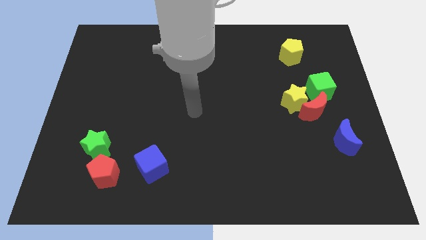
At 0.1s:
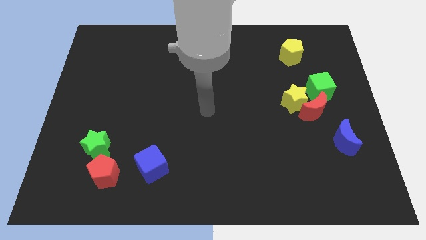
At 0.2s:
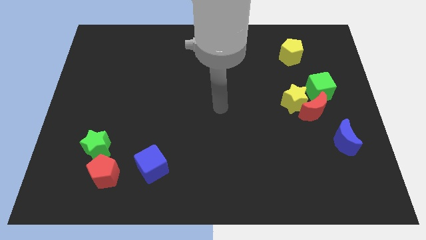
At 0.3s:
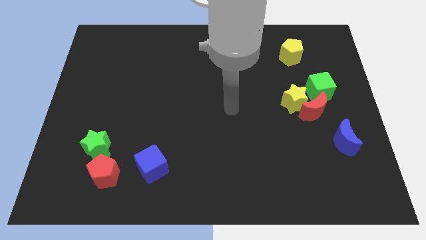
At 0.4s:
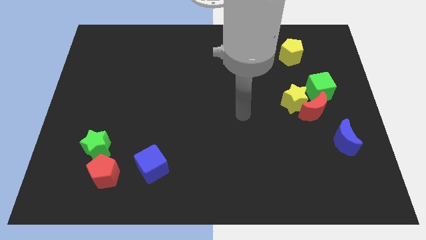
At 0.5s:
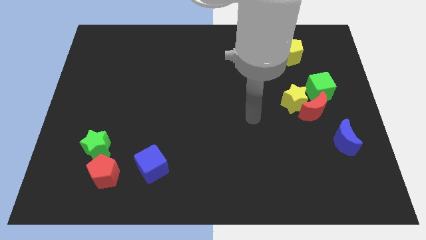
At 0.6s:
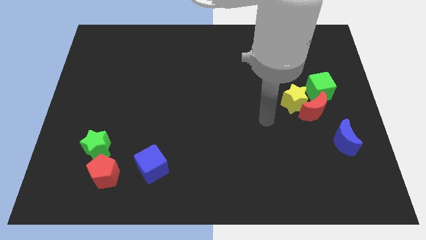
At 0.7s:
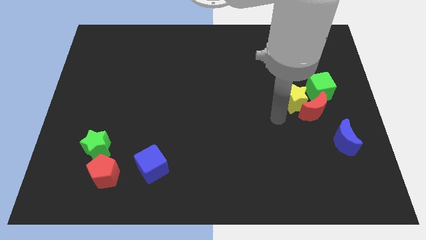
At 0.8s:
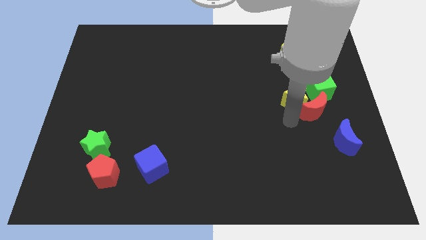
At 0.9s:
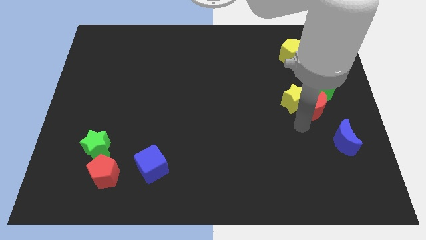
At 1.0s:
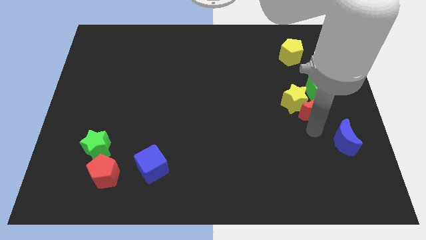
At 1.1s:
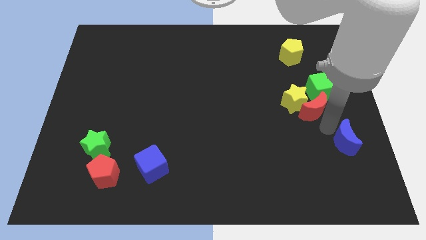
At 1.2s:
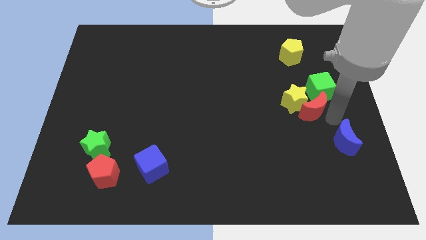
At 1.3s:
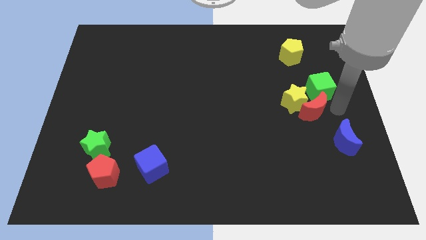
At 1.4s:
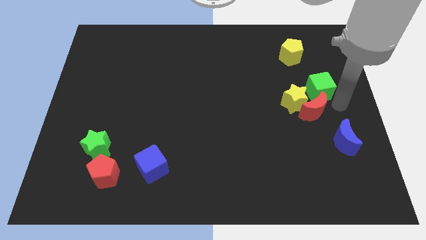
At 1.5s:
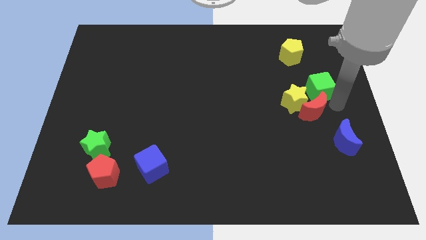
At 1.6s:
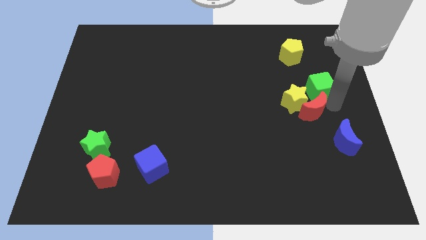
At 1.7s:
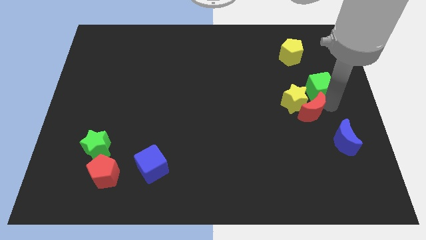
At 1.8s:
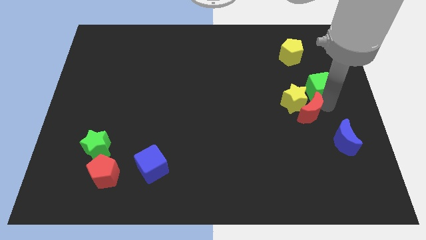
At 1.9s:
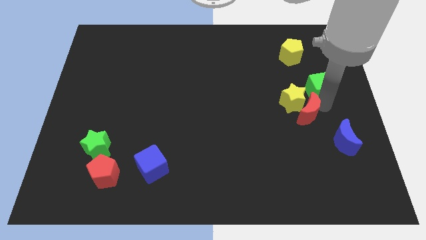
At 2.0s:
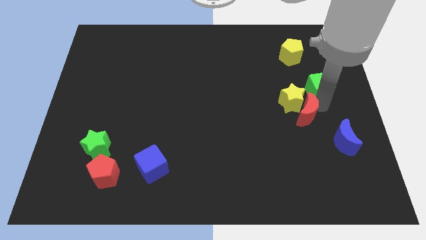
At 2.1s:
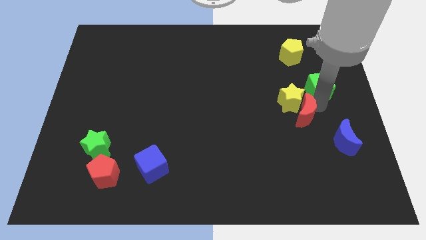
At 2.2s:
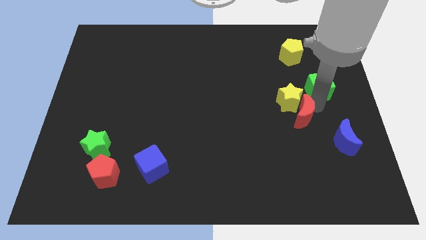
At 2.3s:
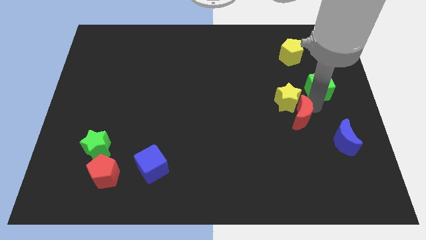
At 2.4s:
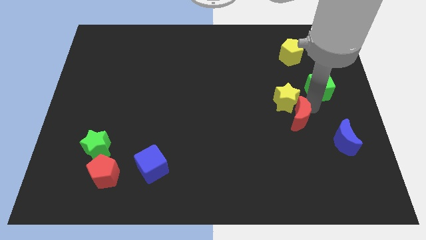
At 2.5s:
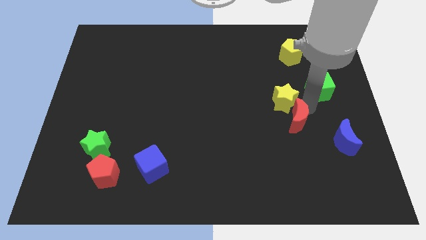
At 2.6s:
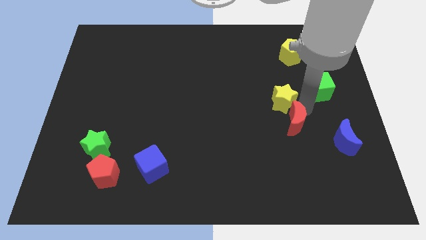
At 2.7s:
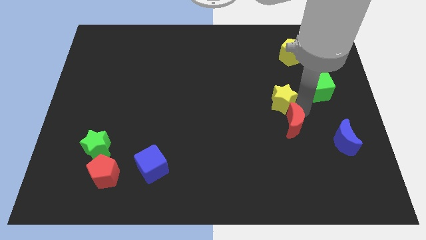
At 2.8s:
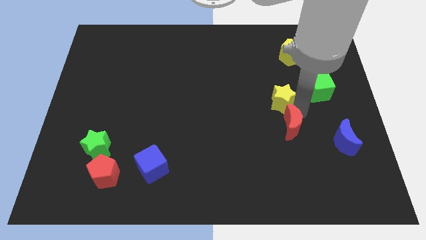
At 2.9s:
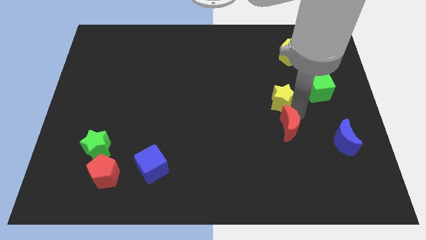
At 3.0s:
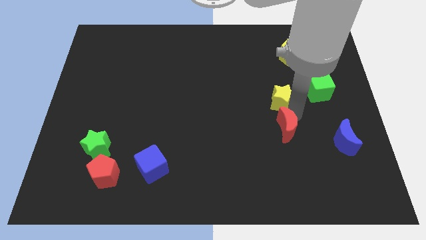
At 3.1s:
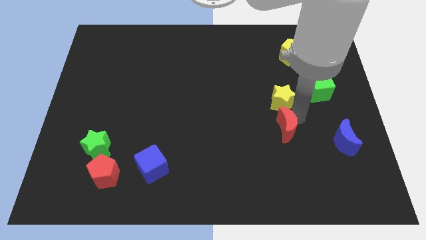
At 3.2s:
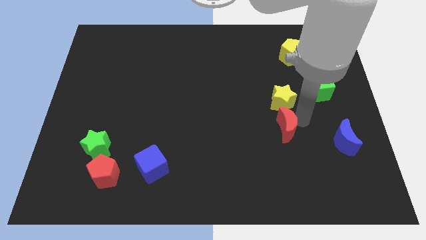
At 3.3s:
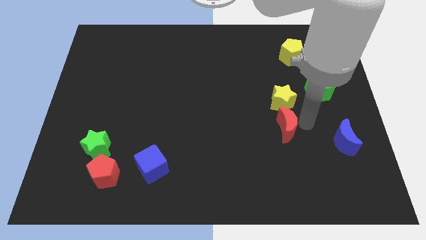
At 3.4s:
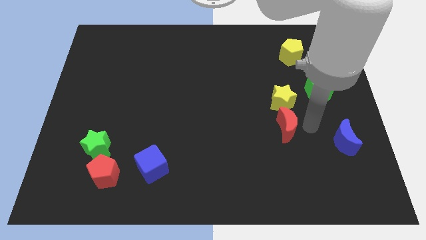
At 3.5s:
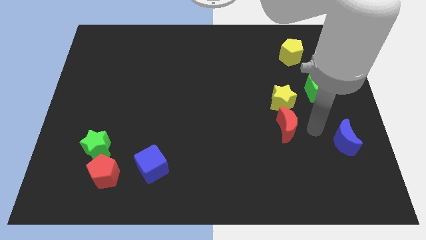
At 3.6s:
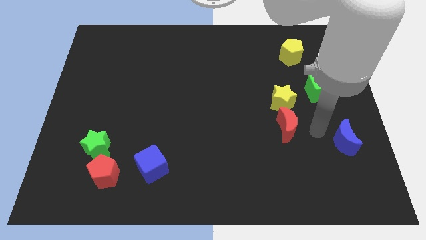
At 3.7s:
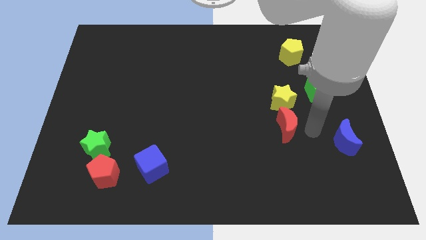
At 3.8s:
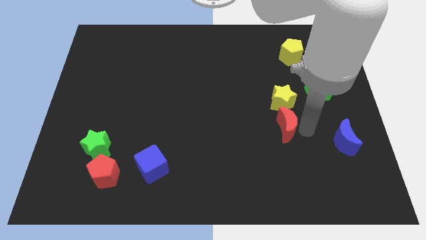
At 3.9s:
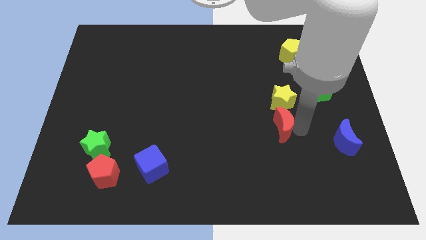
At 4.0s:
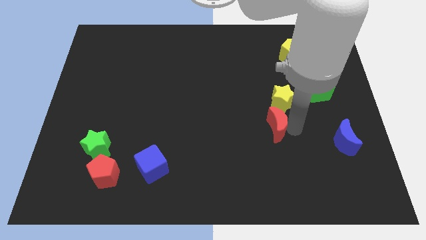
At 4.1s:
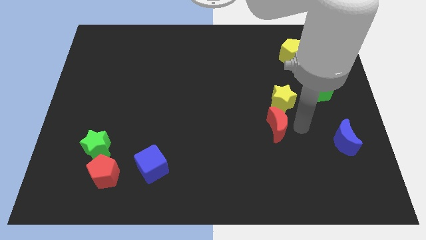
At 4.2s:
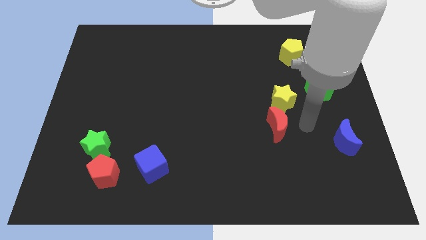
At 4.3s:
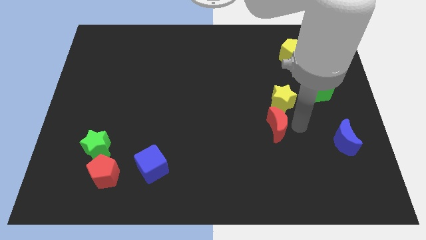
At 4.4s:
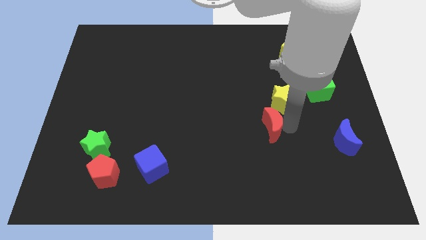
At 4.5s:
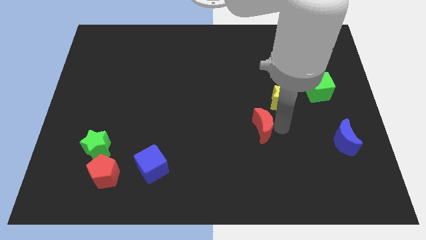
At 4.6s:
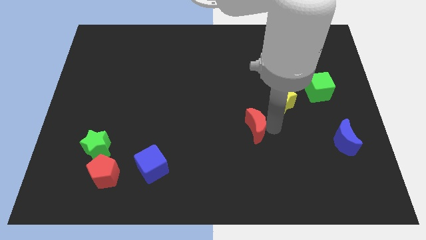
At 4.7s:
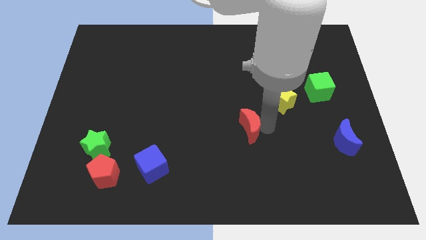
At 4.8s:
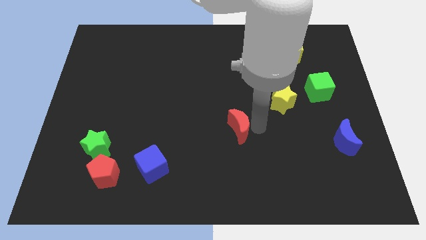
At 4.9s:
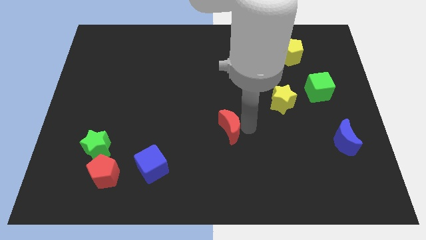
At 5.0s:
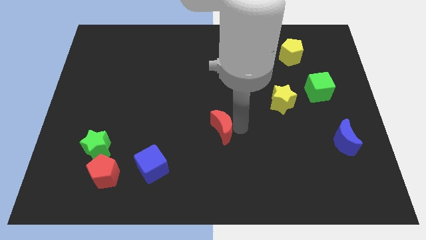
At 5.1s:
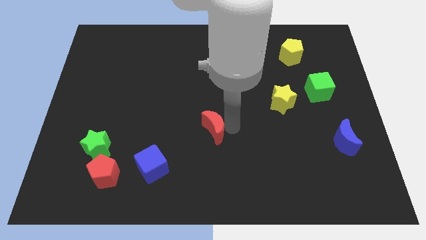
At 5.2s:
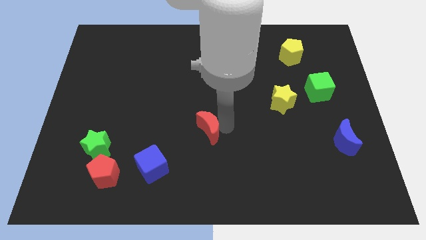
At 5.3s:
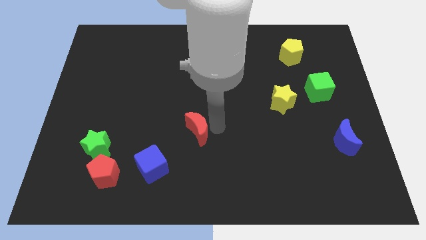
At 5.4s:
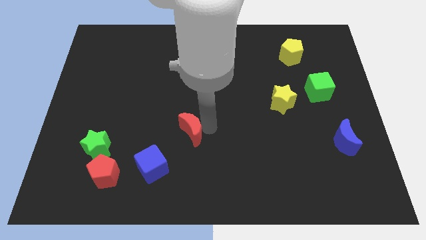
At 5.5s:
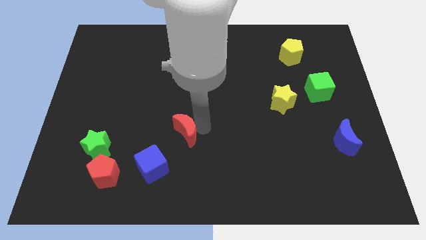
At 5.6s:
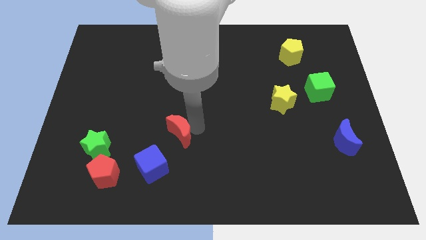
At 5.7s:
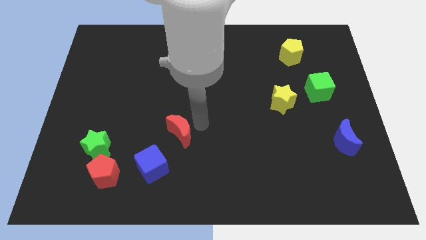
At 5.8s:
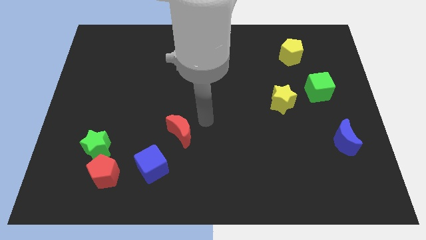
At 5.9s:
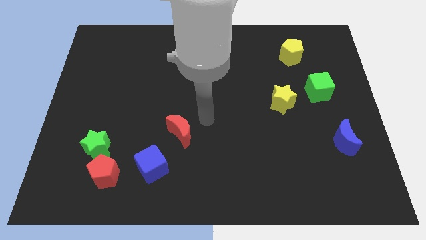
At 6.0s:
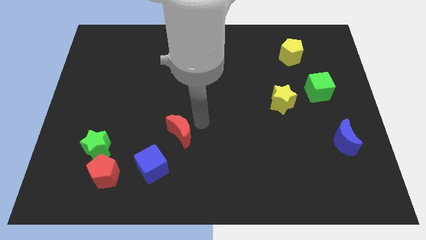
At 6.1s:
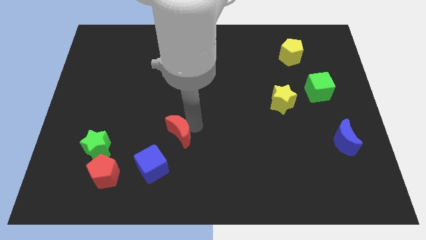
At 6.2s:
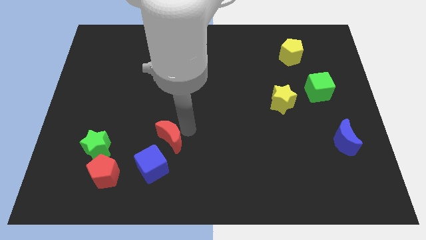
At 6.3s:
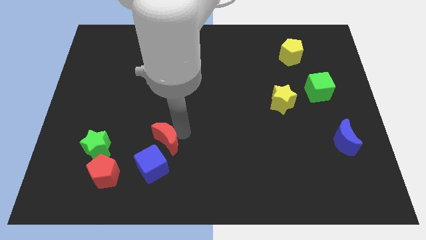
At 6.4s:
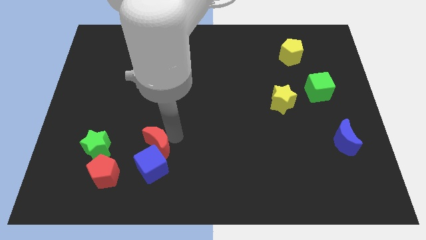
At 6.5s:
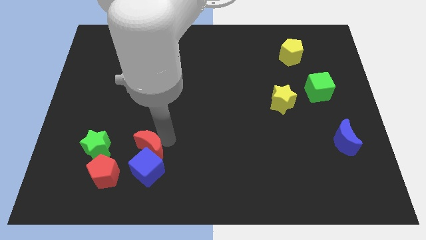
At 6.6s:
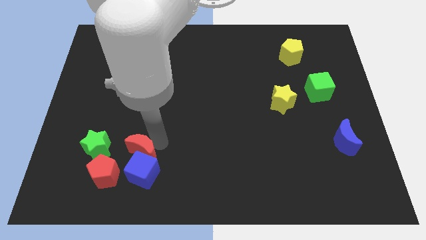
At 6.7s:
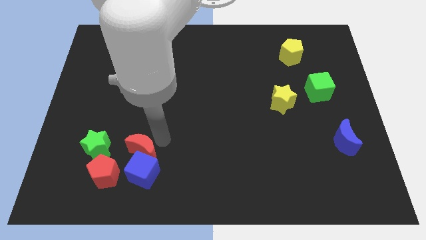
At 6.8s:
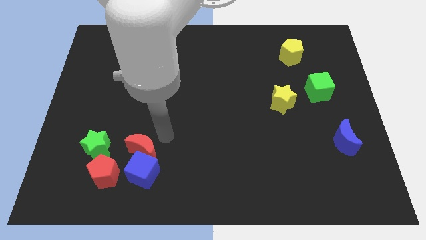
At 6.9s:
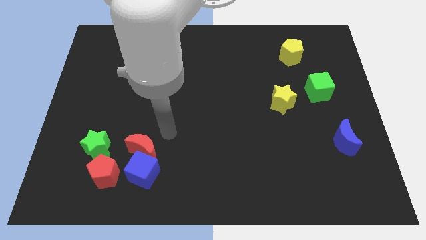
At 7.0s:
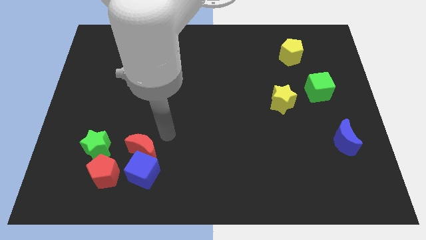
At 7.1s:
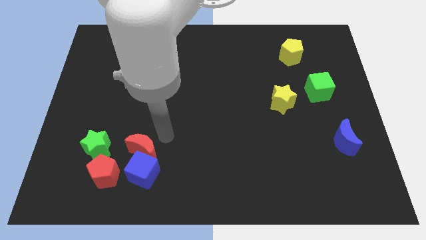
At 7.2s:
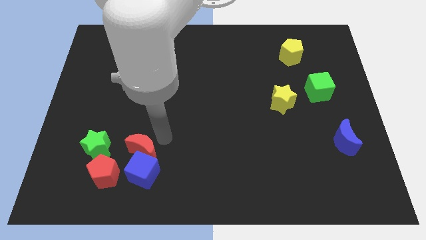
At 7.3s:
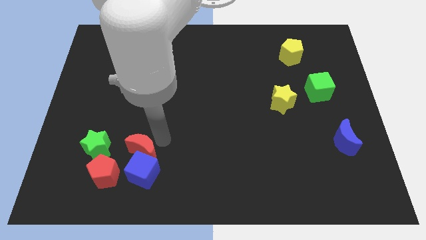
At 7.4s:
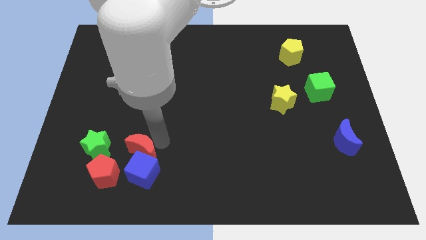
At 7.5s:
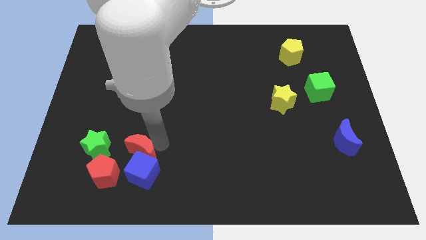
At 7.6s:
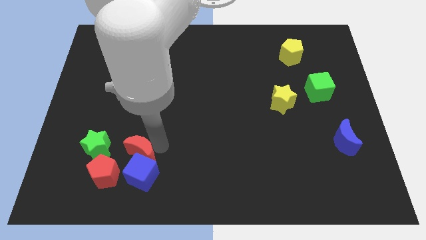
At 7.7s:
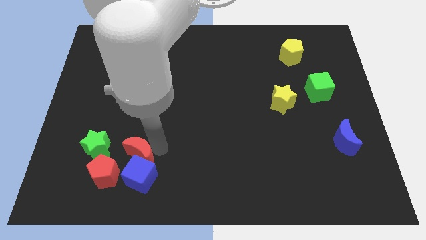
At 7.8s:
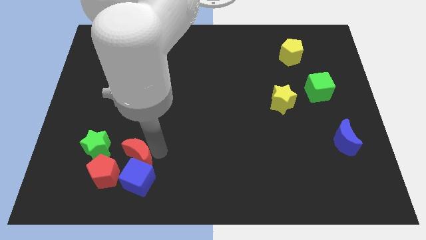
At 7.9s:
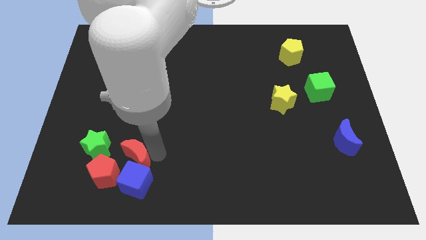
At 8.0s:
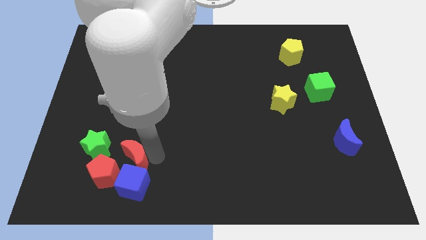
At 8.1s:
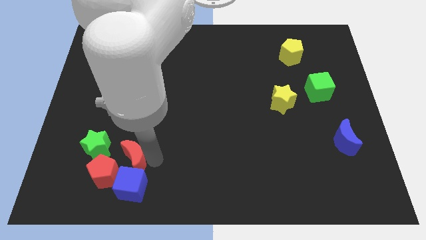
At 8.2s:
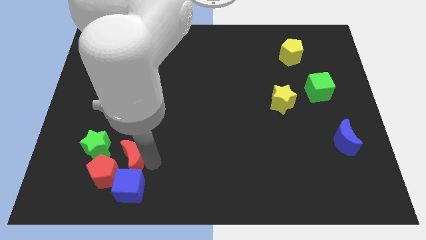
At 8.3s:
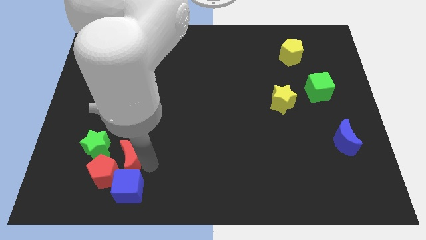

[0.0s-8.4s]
put the red moon towards the red pentagon
